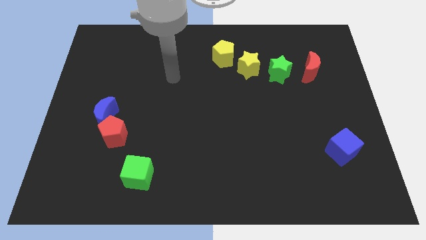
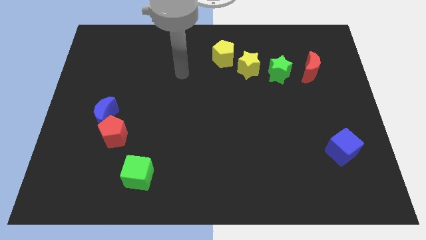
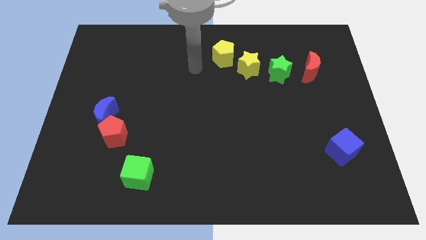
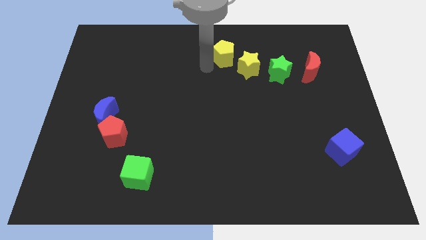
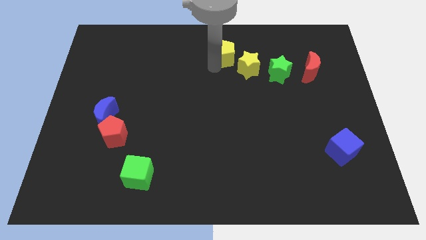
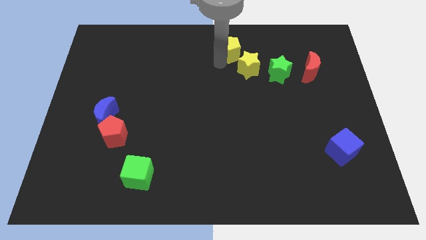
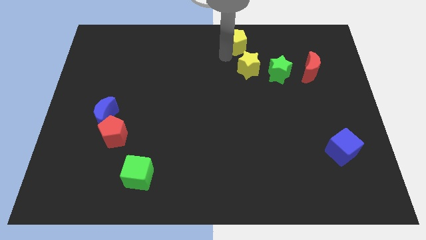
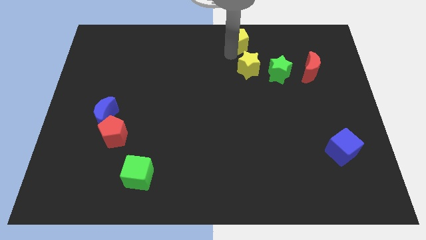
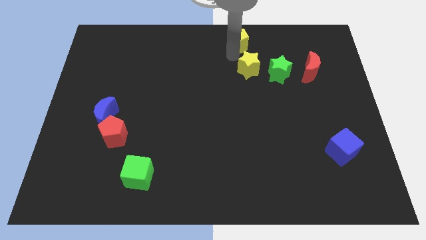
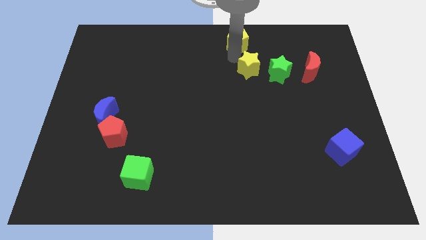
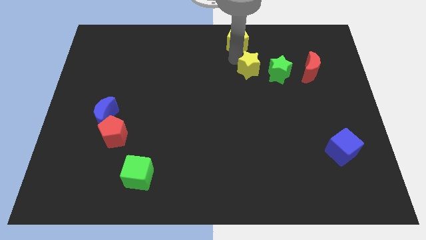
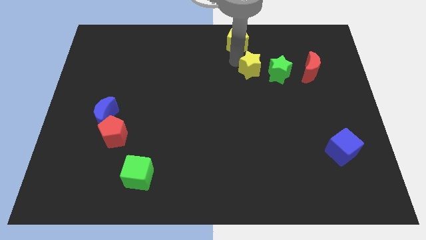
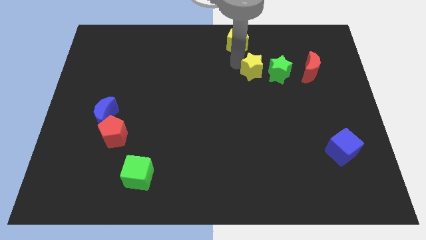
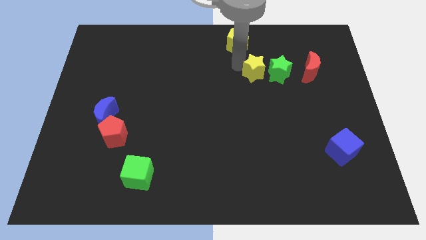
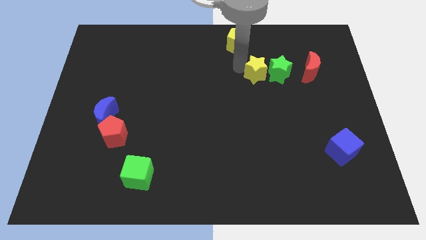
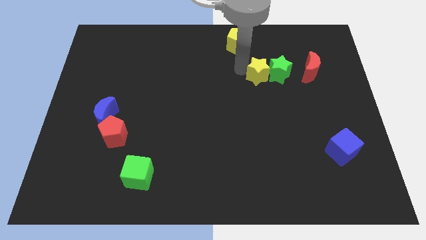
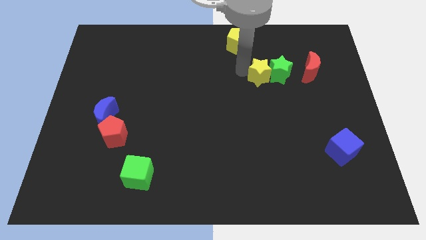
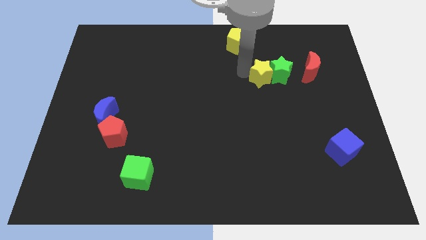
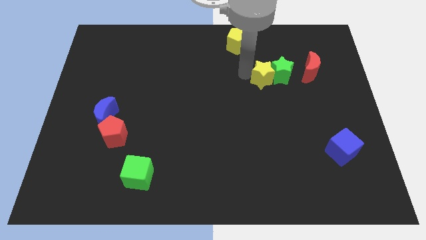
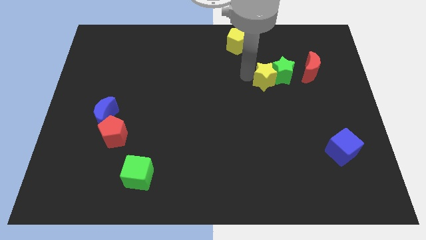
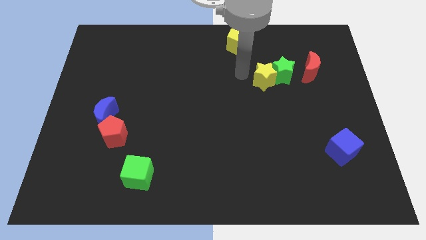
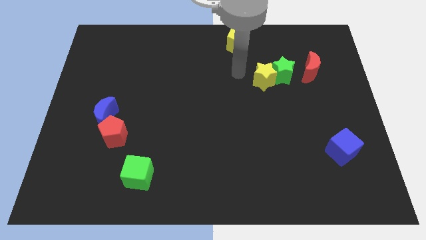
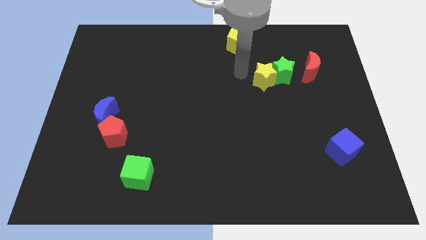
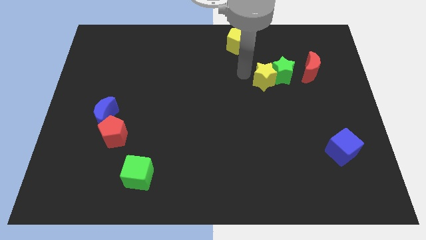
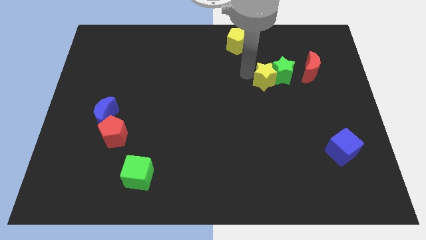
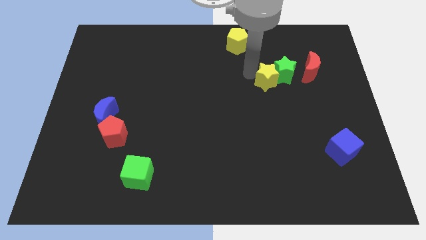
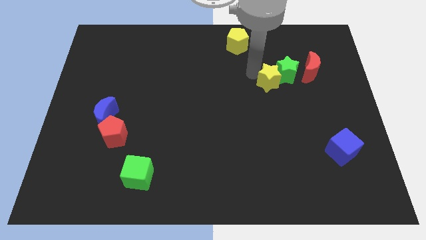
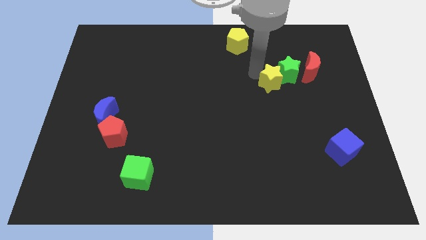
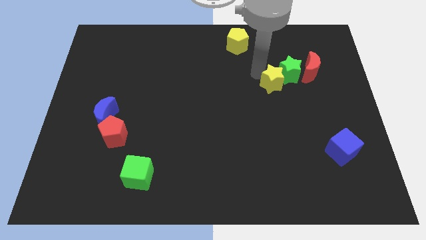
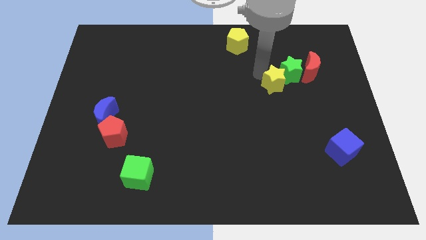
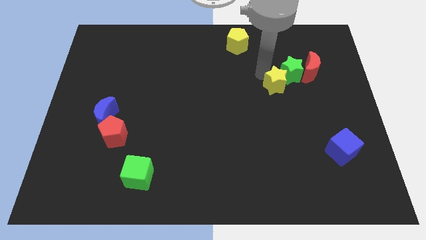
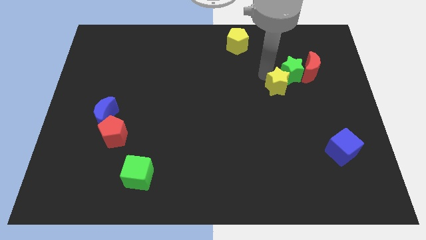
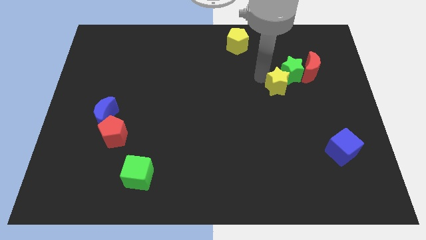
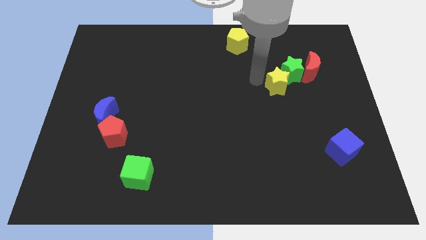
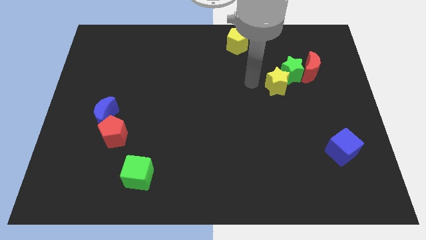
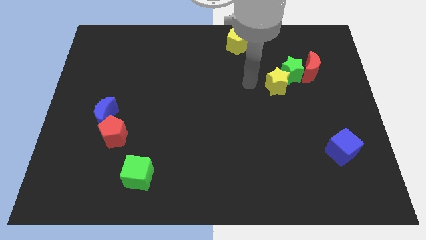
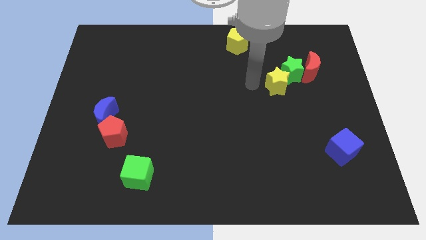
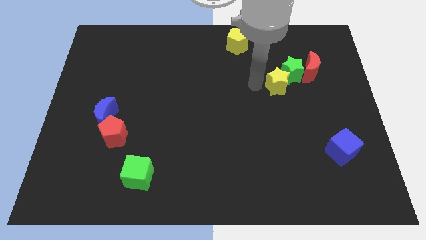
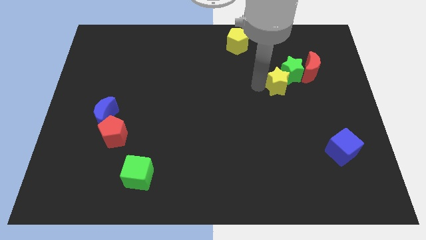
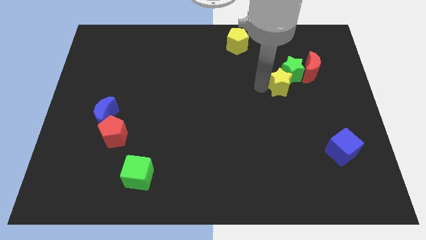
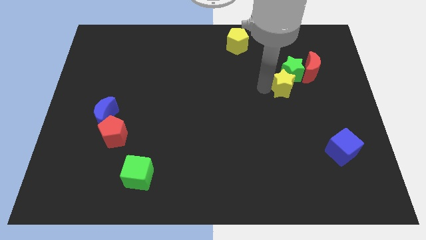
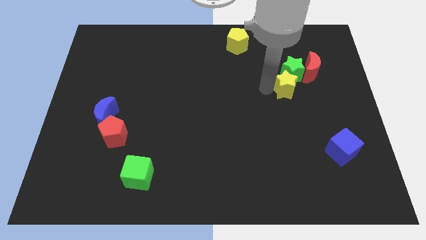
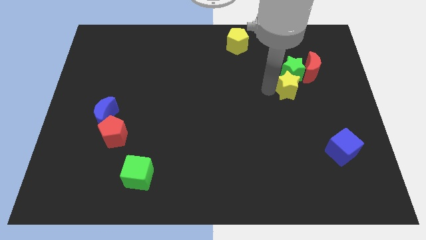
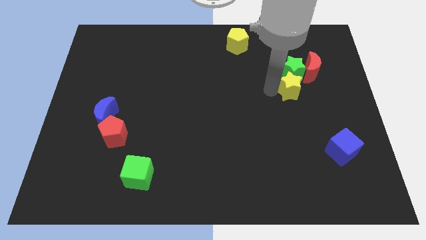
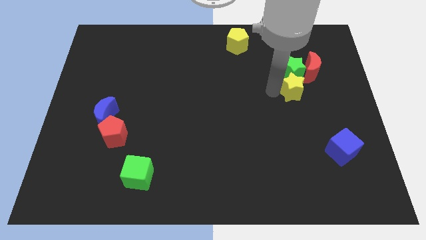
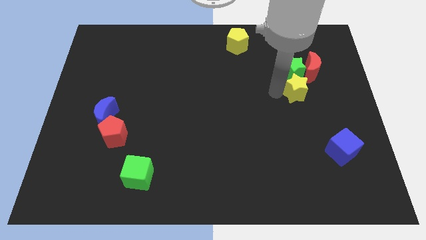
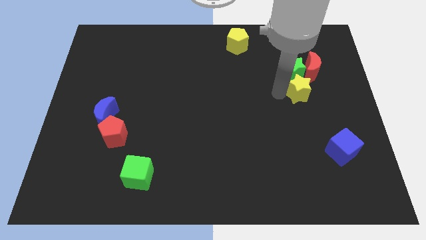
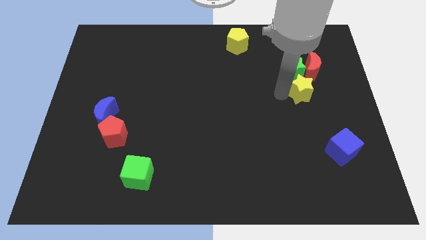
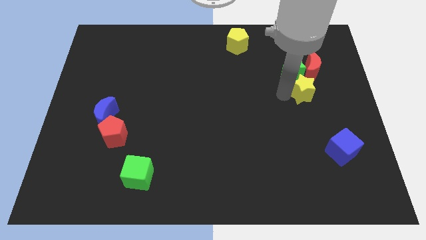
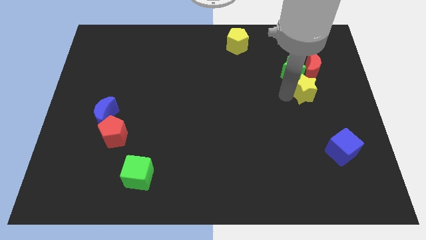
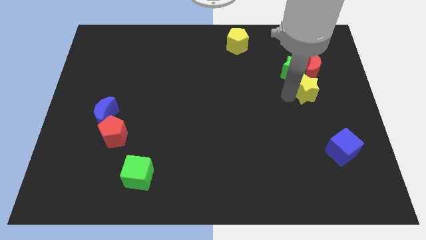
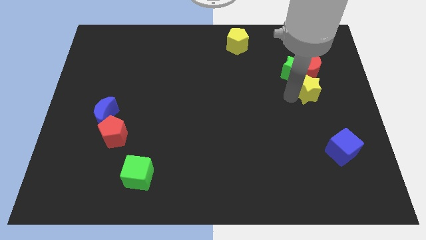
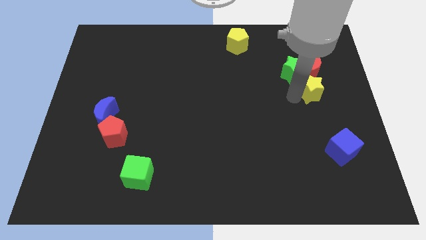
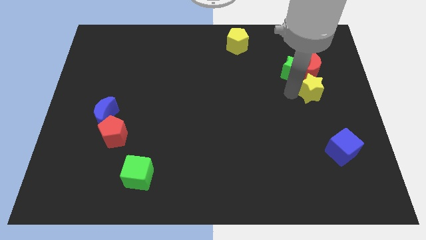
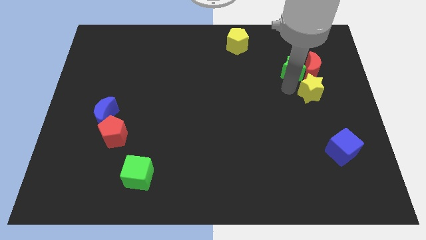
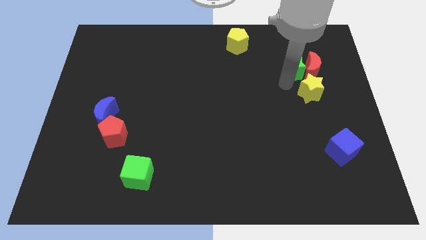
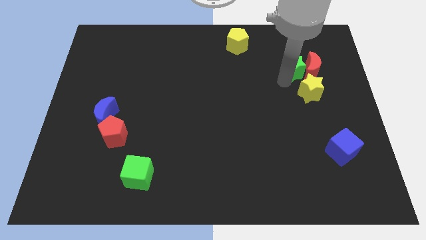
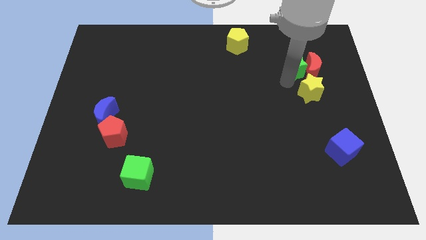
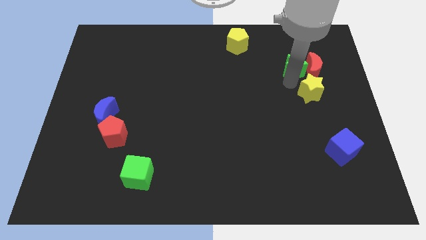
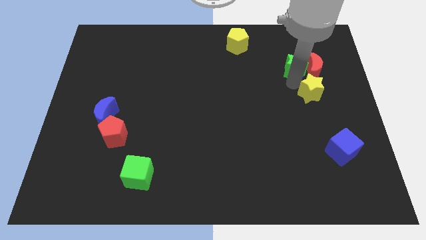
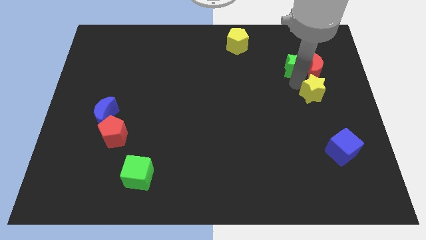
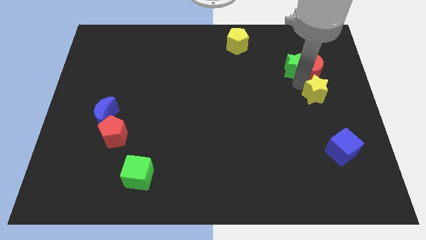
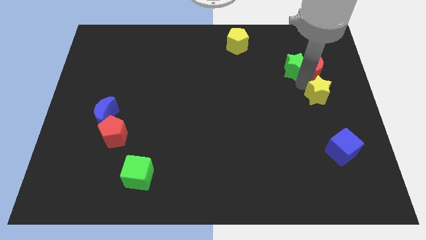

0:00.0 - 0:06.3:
move the yellow star to the right side
